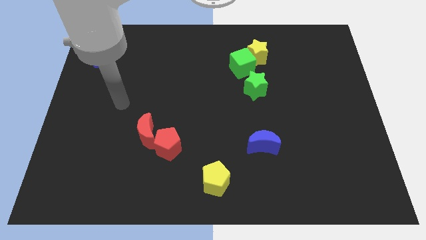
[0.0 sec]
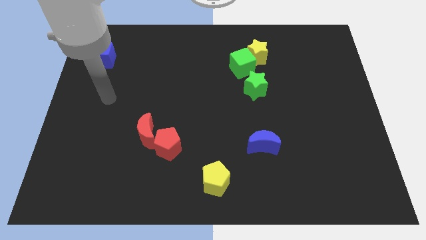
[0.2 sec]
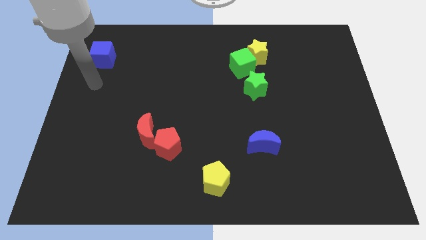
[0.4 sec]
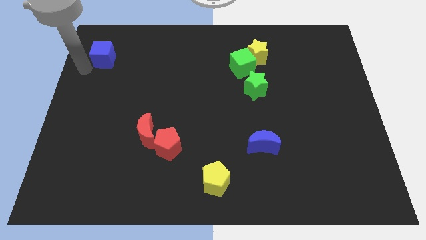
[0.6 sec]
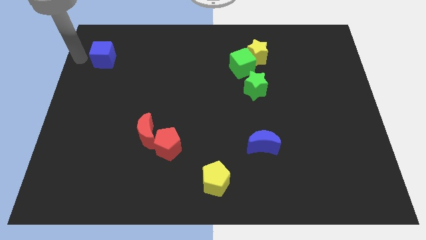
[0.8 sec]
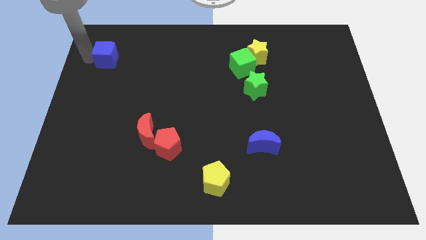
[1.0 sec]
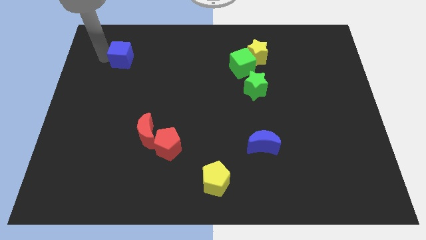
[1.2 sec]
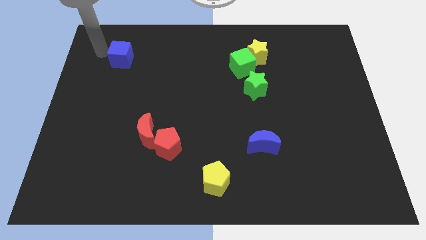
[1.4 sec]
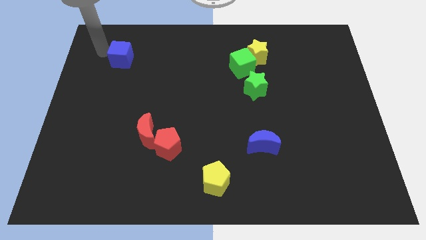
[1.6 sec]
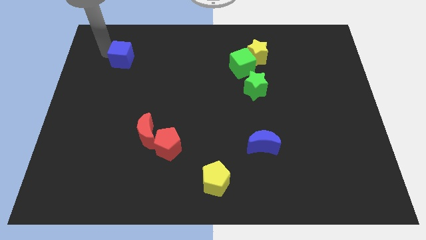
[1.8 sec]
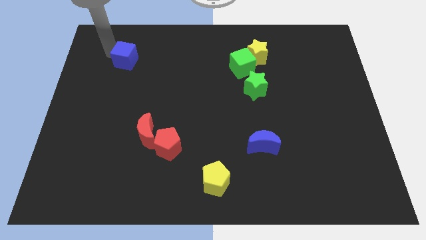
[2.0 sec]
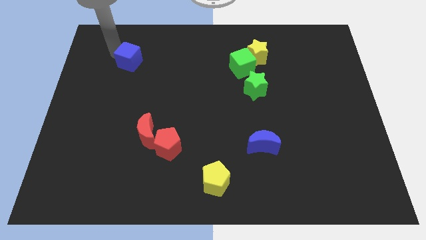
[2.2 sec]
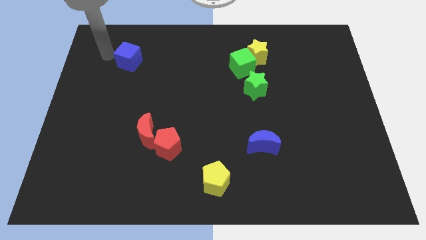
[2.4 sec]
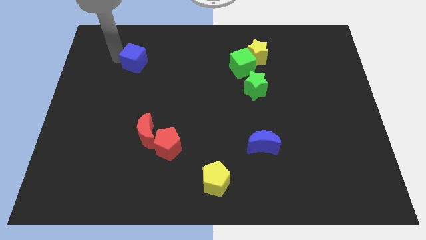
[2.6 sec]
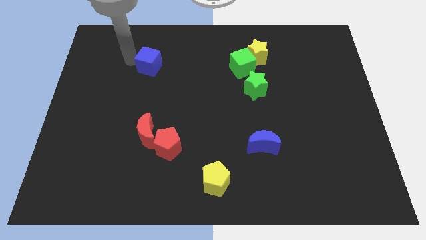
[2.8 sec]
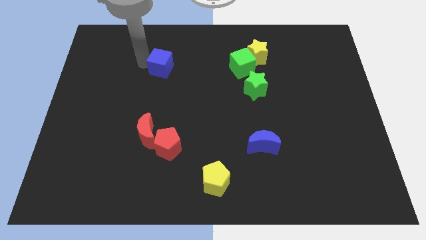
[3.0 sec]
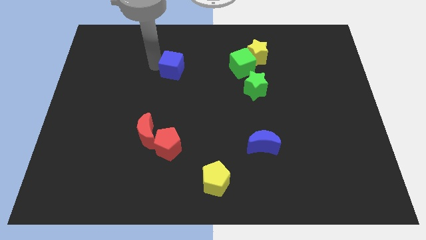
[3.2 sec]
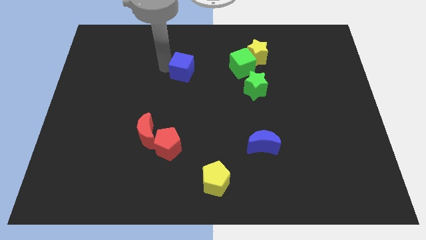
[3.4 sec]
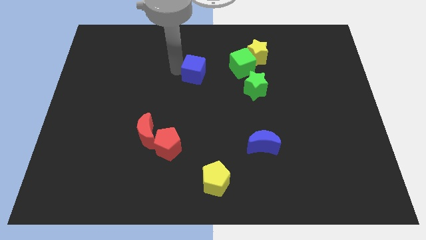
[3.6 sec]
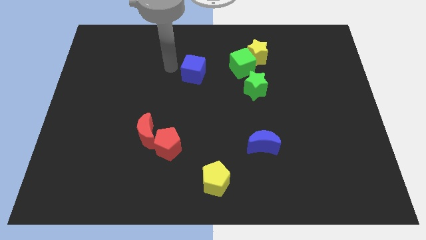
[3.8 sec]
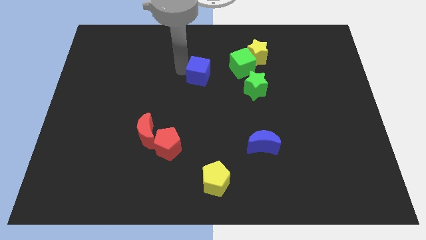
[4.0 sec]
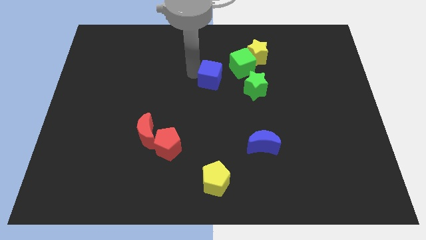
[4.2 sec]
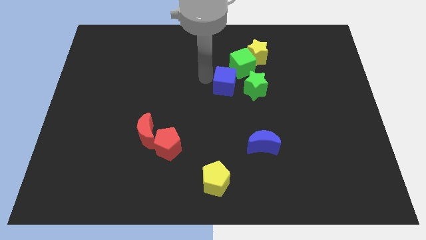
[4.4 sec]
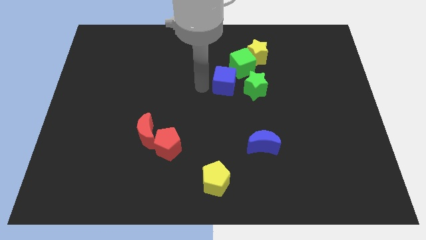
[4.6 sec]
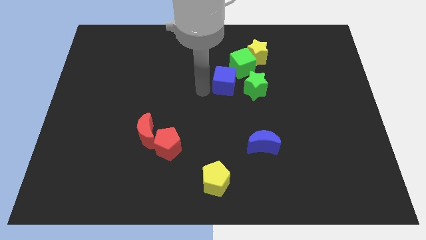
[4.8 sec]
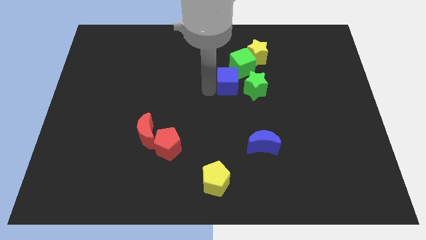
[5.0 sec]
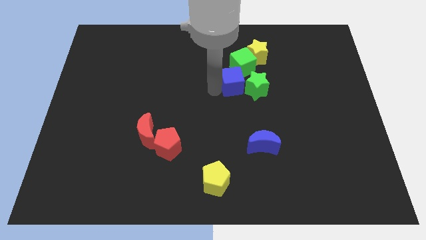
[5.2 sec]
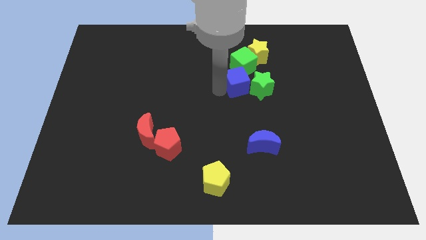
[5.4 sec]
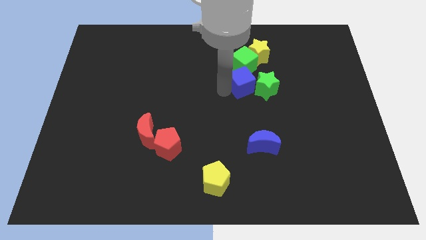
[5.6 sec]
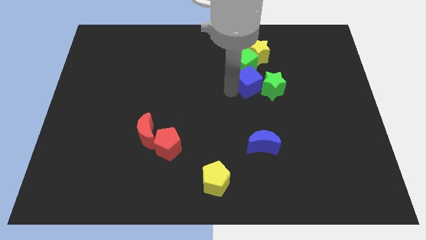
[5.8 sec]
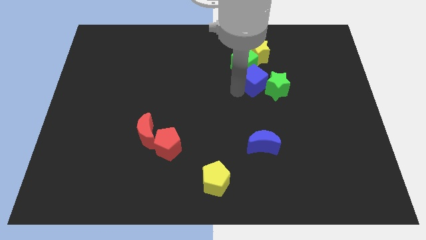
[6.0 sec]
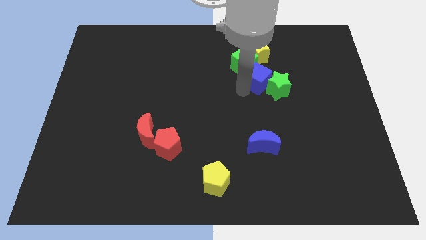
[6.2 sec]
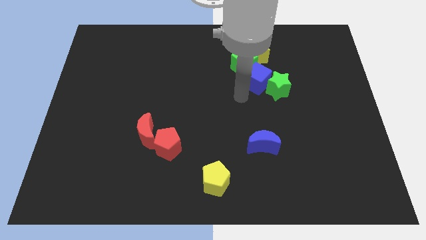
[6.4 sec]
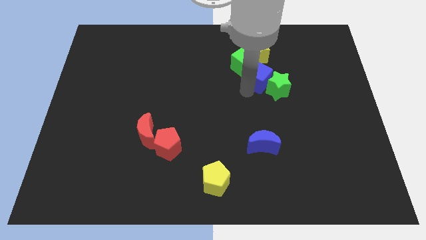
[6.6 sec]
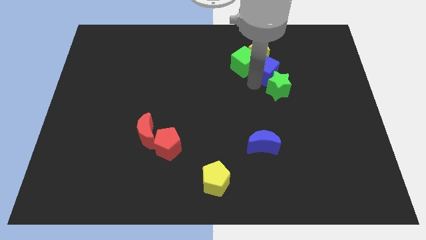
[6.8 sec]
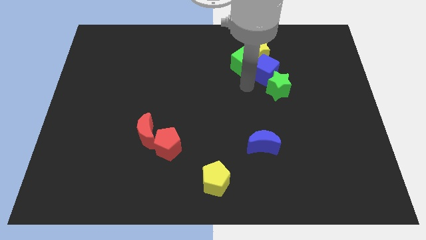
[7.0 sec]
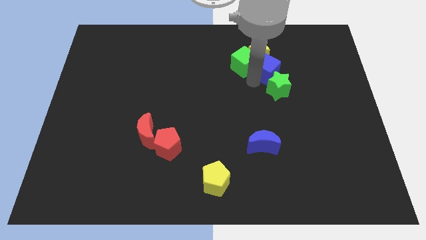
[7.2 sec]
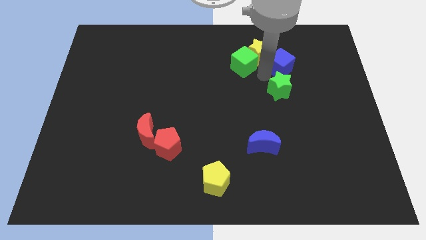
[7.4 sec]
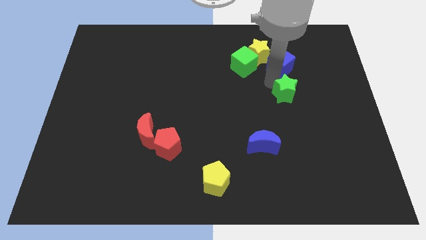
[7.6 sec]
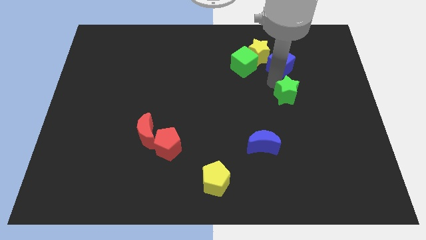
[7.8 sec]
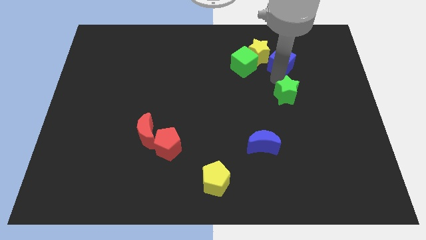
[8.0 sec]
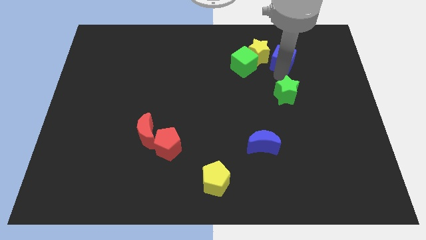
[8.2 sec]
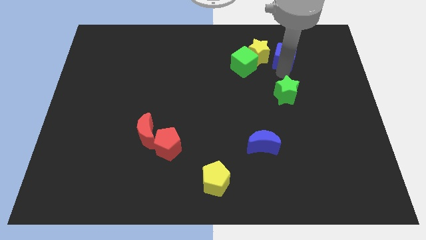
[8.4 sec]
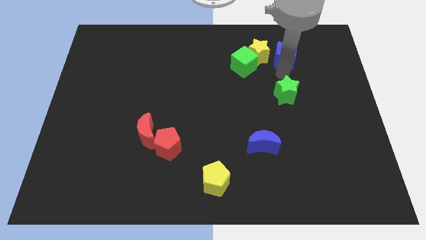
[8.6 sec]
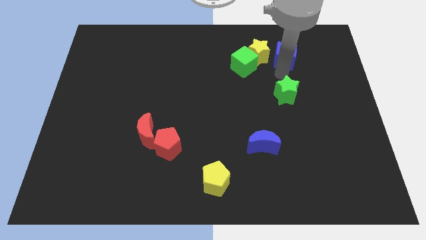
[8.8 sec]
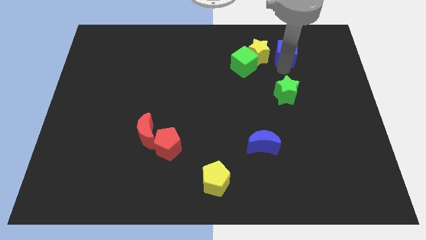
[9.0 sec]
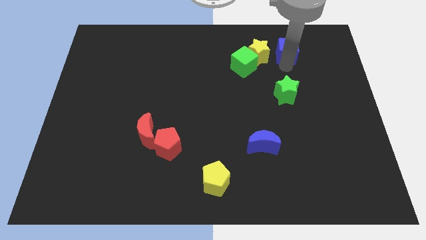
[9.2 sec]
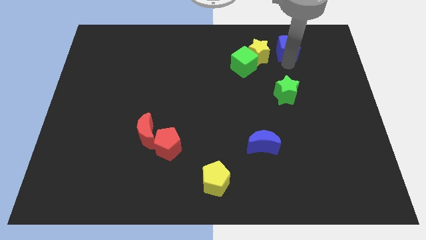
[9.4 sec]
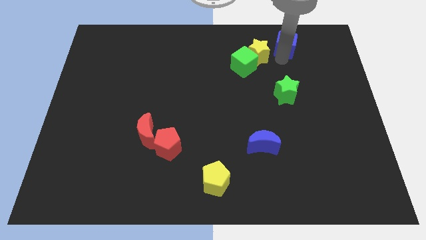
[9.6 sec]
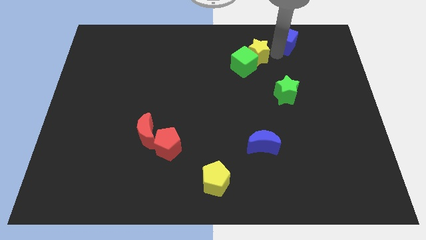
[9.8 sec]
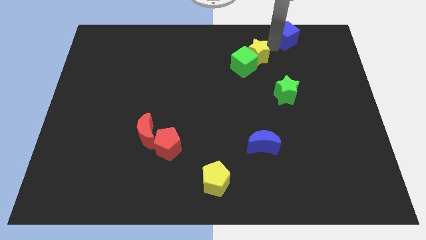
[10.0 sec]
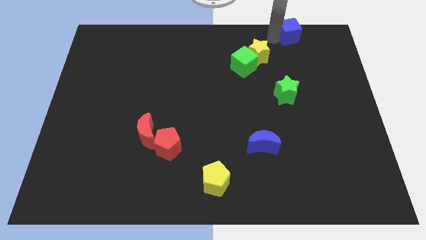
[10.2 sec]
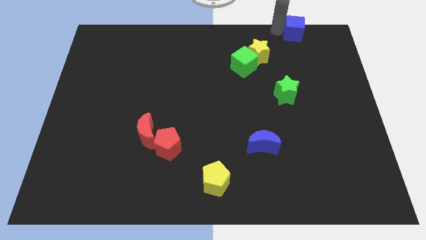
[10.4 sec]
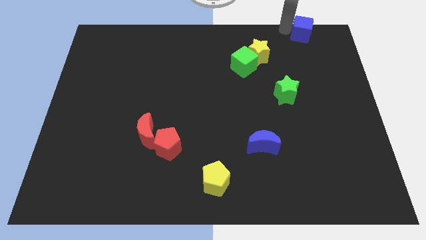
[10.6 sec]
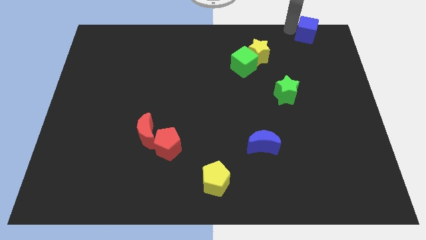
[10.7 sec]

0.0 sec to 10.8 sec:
put the blue cube to the top right corner
